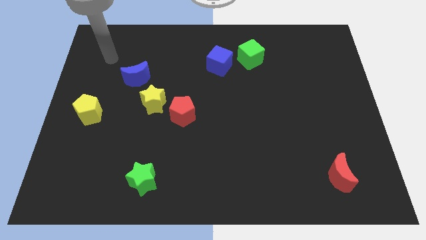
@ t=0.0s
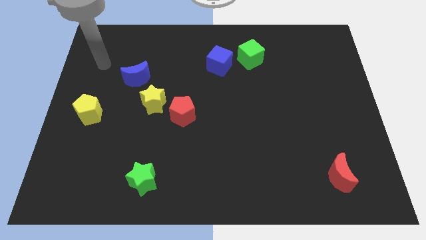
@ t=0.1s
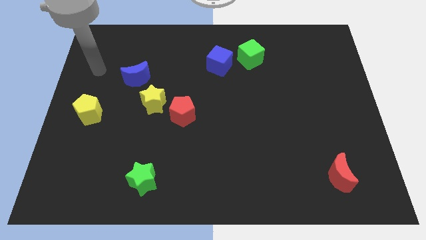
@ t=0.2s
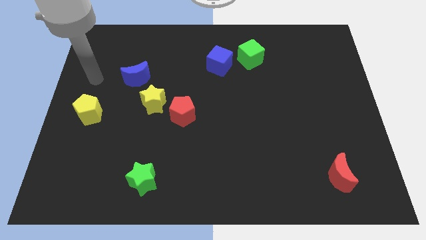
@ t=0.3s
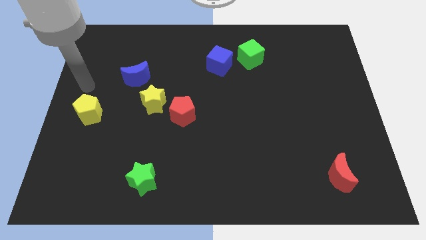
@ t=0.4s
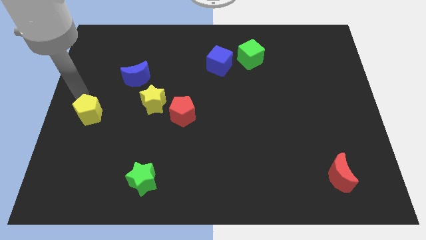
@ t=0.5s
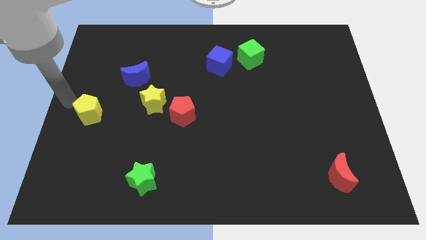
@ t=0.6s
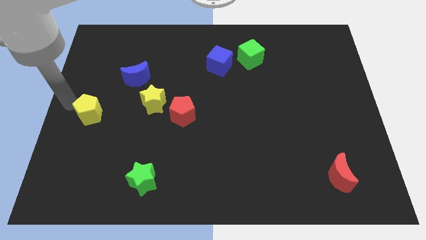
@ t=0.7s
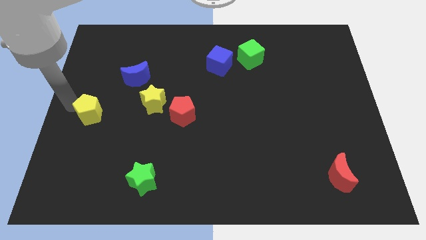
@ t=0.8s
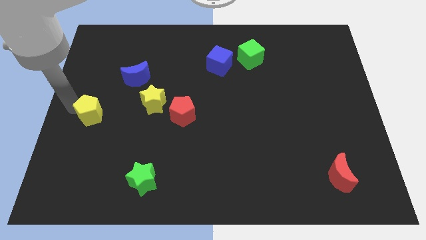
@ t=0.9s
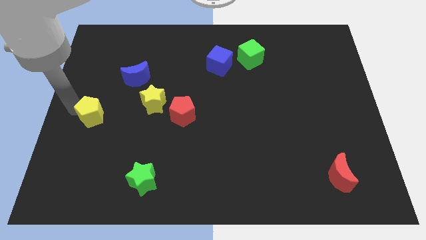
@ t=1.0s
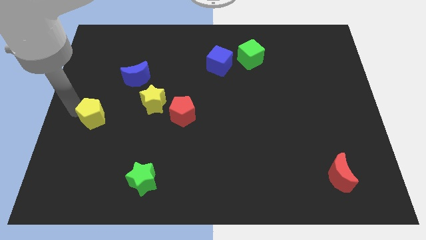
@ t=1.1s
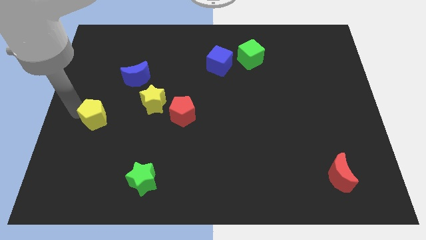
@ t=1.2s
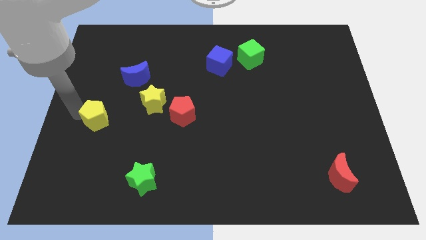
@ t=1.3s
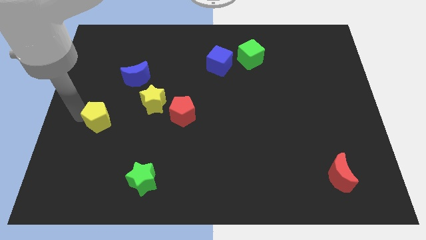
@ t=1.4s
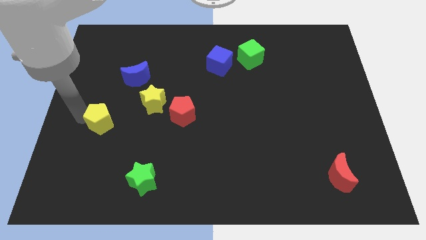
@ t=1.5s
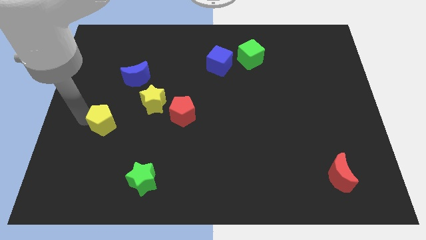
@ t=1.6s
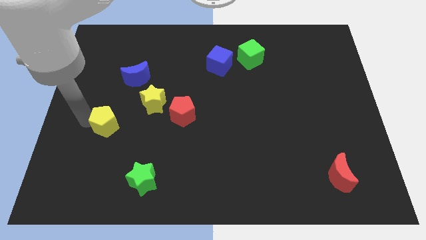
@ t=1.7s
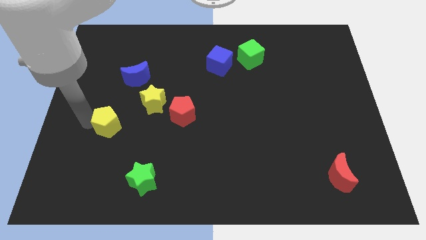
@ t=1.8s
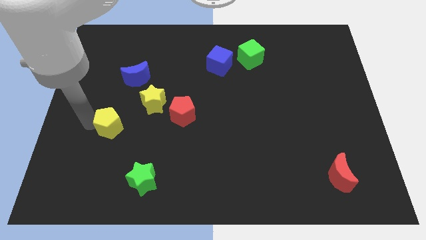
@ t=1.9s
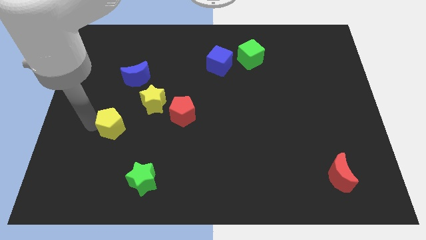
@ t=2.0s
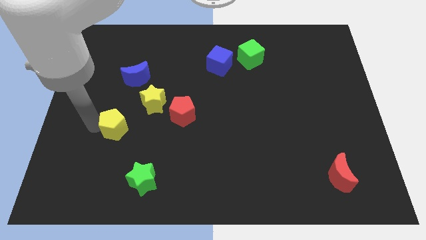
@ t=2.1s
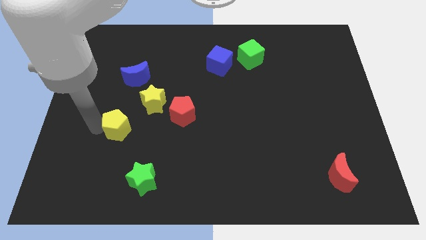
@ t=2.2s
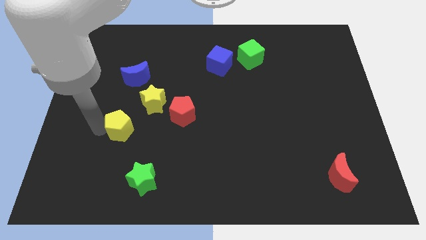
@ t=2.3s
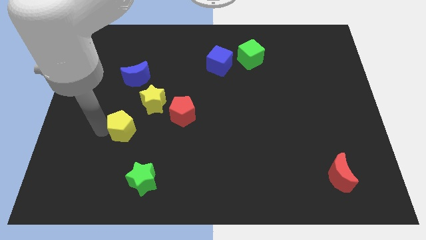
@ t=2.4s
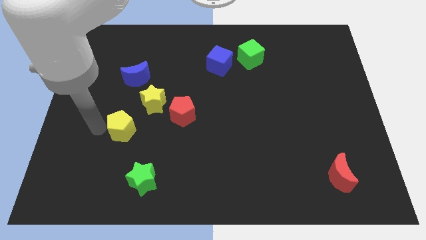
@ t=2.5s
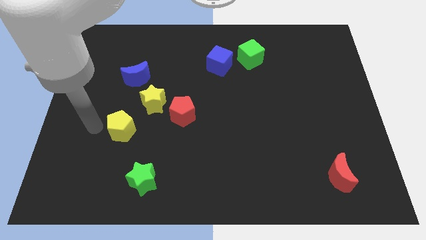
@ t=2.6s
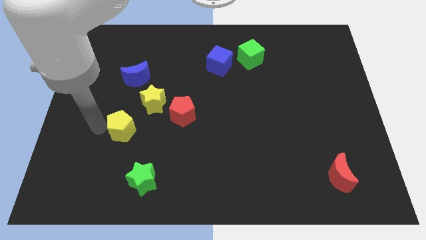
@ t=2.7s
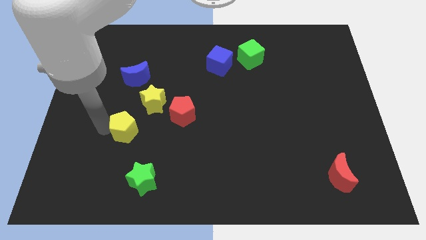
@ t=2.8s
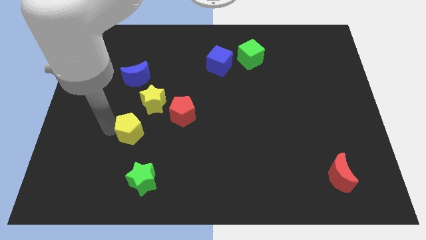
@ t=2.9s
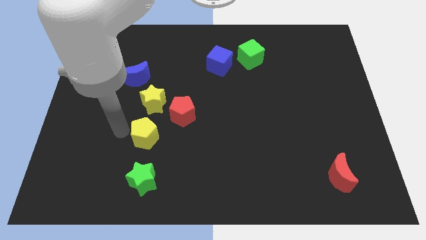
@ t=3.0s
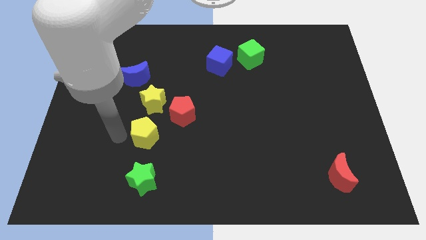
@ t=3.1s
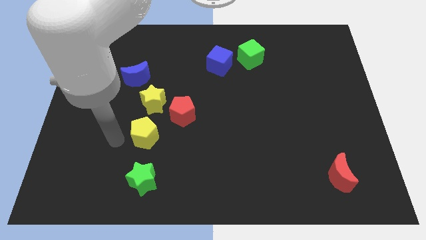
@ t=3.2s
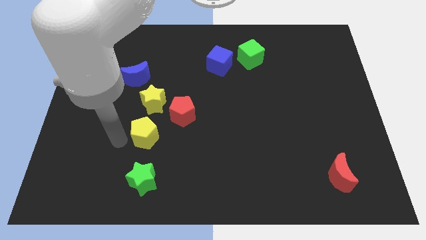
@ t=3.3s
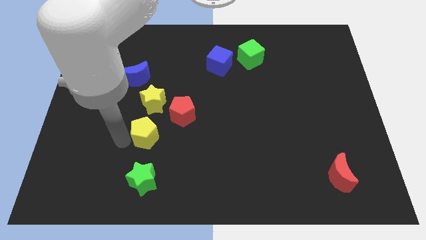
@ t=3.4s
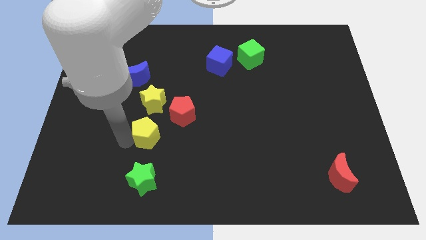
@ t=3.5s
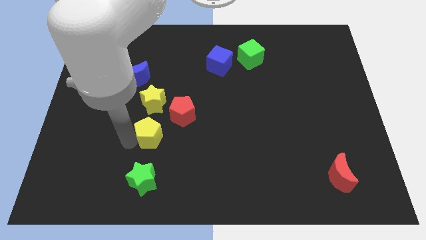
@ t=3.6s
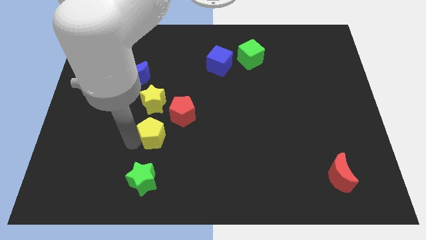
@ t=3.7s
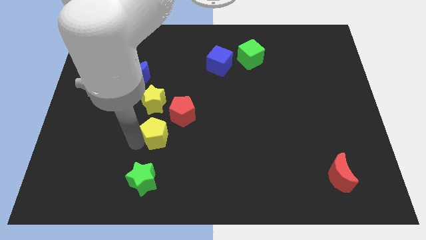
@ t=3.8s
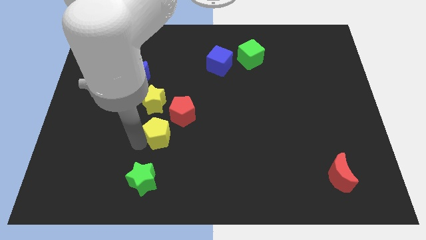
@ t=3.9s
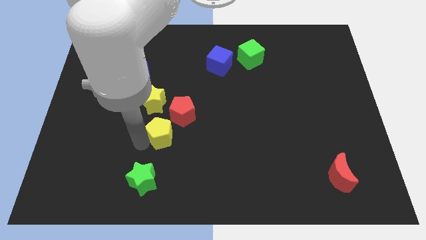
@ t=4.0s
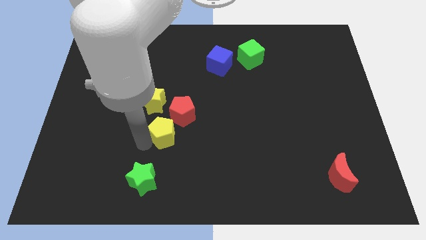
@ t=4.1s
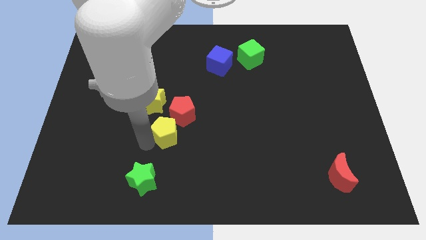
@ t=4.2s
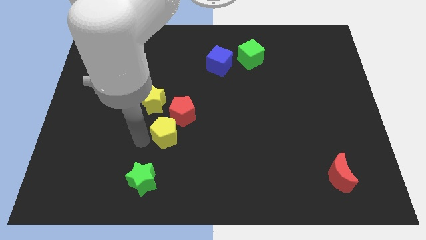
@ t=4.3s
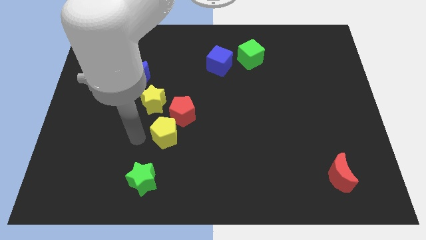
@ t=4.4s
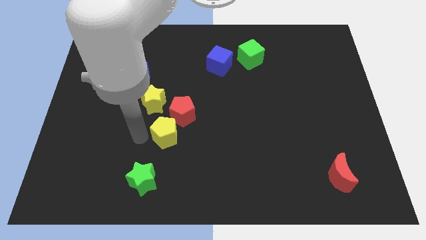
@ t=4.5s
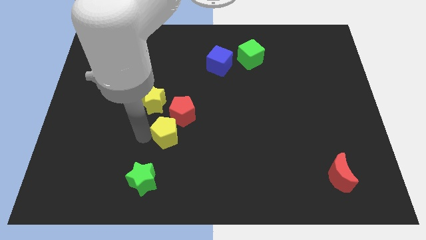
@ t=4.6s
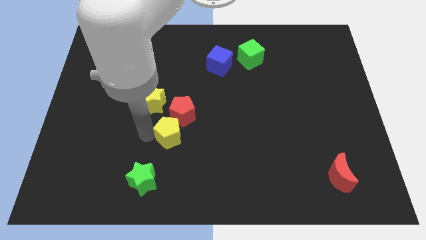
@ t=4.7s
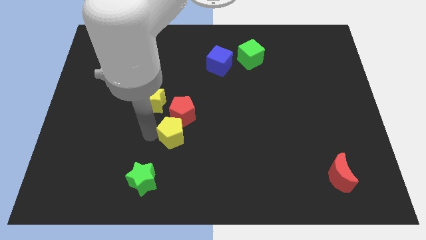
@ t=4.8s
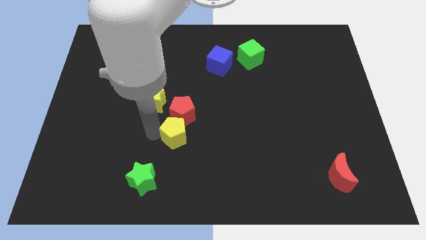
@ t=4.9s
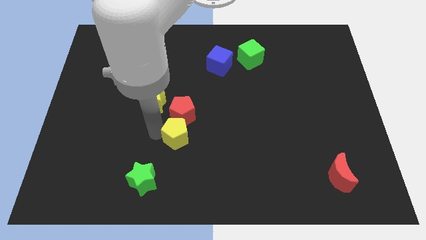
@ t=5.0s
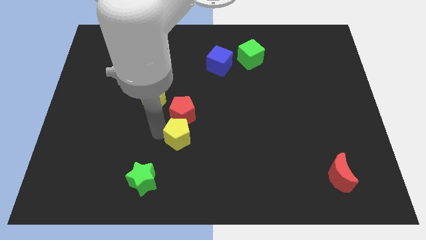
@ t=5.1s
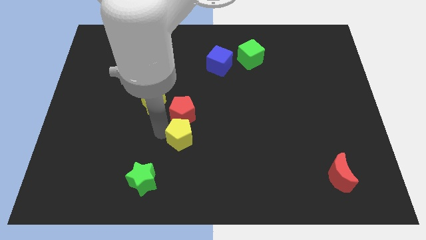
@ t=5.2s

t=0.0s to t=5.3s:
move the yellow pentagon to the right

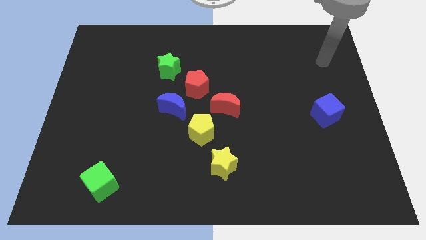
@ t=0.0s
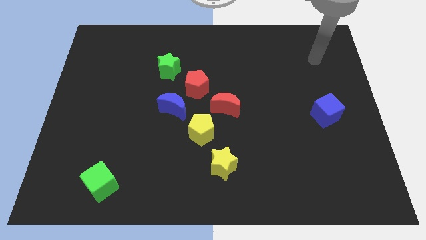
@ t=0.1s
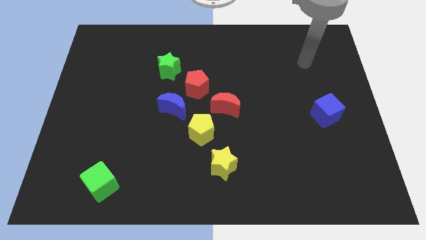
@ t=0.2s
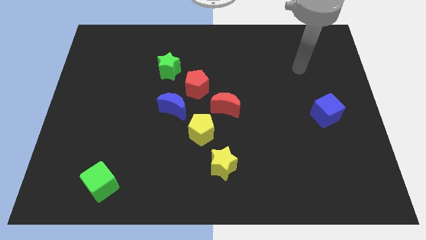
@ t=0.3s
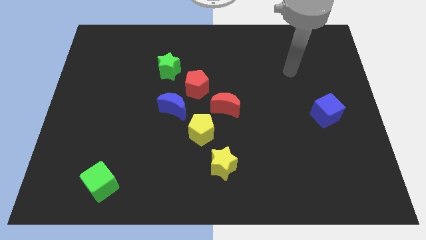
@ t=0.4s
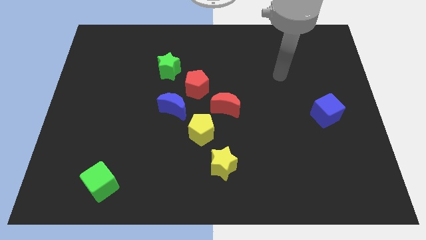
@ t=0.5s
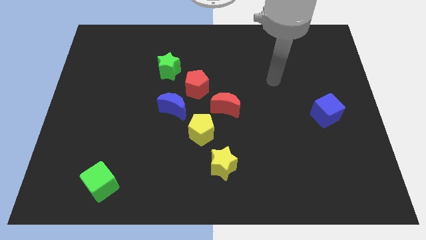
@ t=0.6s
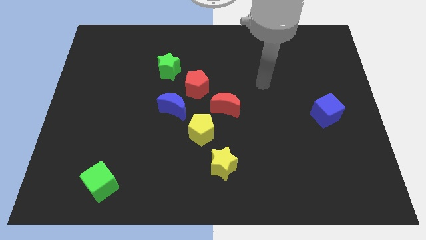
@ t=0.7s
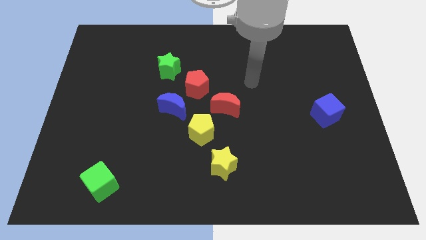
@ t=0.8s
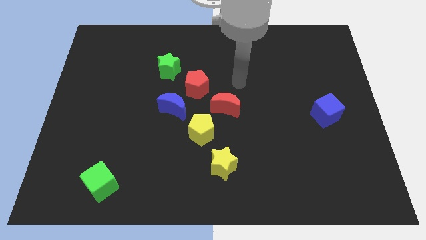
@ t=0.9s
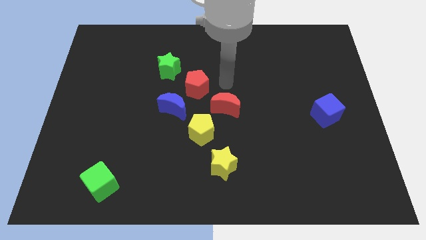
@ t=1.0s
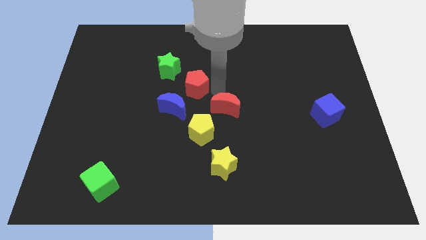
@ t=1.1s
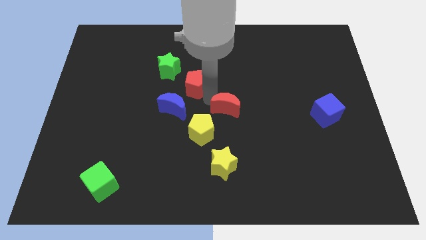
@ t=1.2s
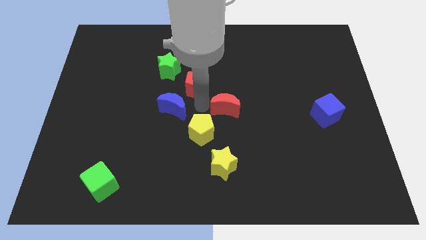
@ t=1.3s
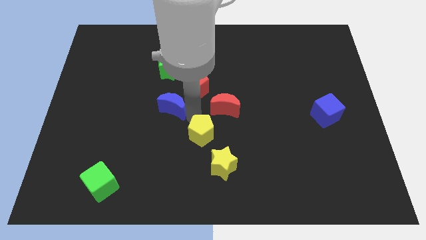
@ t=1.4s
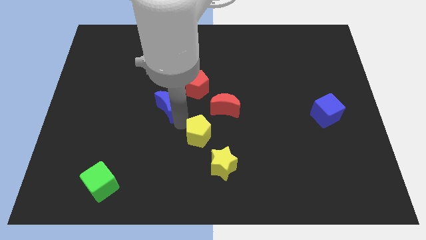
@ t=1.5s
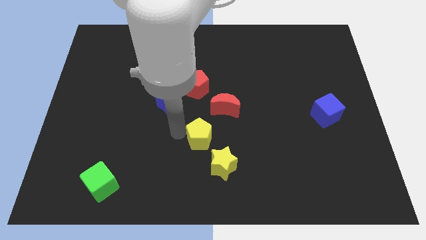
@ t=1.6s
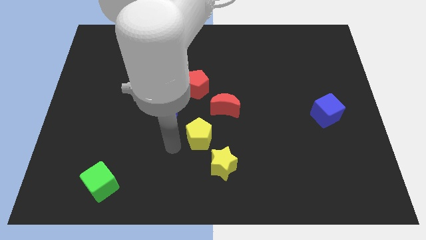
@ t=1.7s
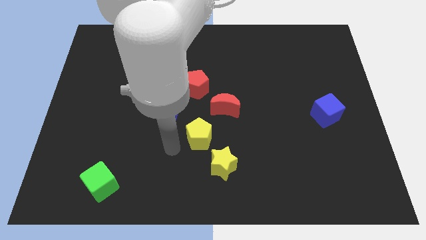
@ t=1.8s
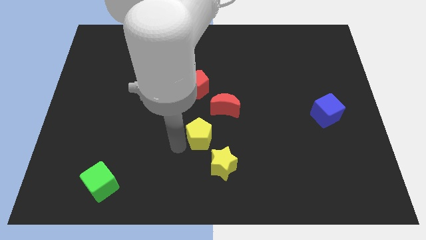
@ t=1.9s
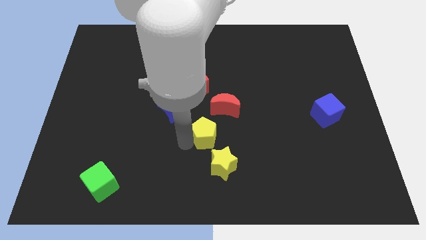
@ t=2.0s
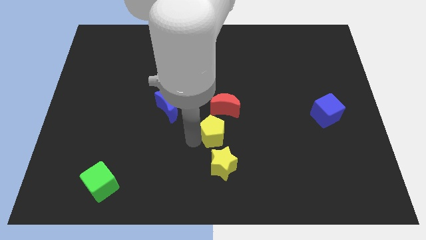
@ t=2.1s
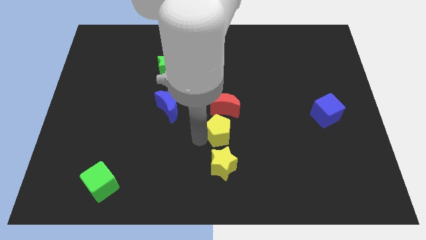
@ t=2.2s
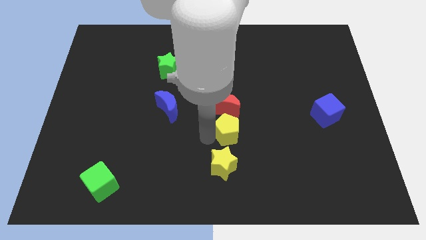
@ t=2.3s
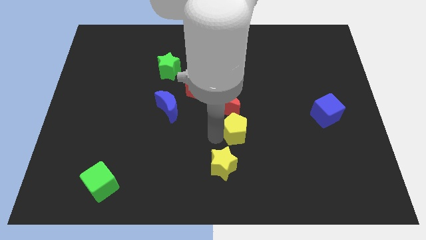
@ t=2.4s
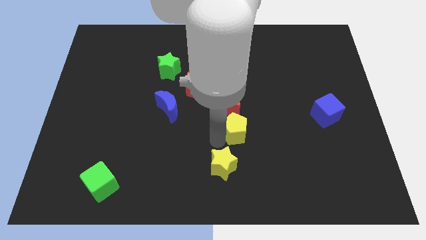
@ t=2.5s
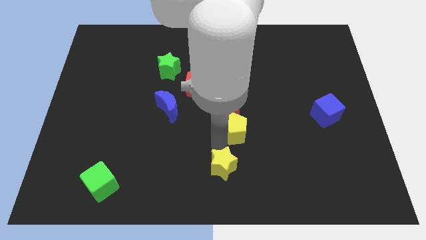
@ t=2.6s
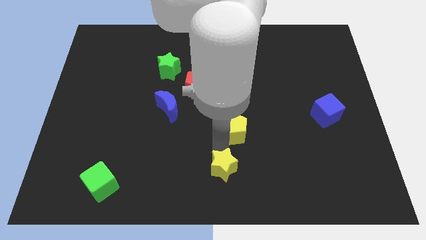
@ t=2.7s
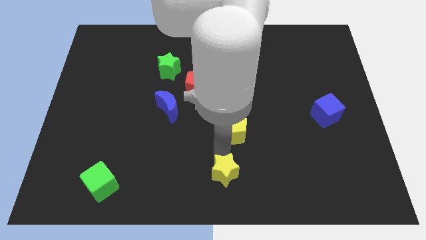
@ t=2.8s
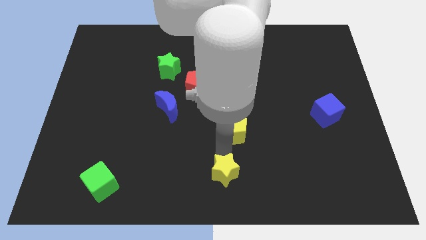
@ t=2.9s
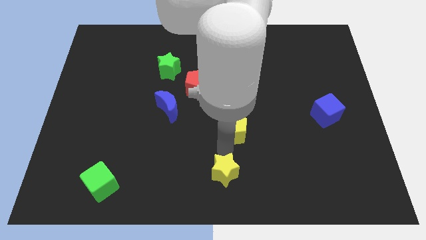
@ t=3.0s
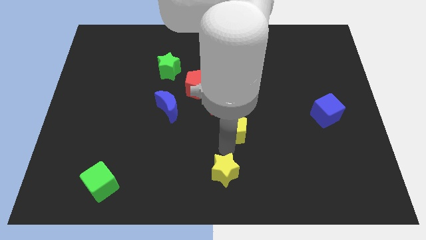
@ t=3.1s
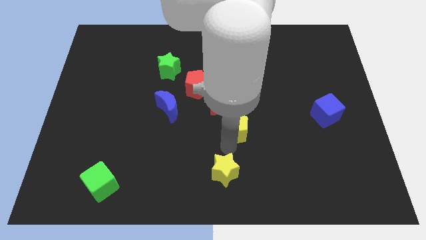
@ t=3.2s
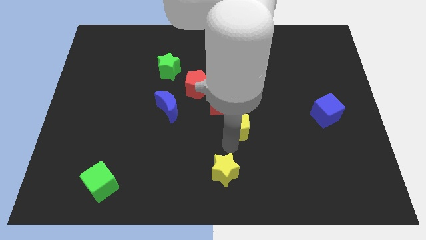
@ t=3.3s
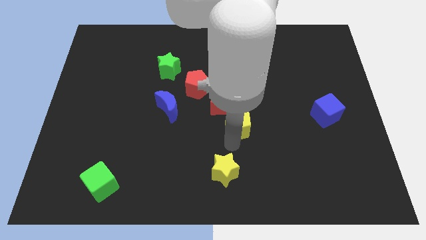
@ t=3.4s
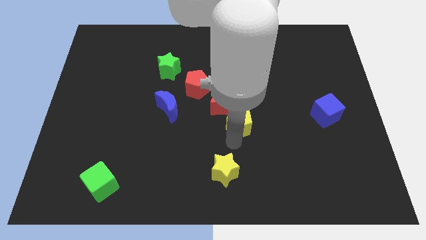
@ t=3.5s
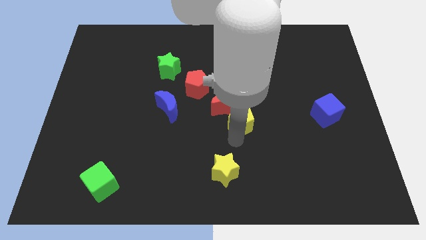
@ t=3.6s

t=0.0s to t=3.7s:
slide the yellow pentagon diagonally up and to the right a bit
